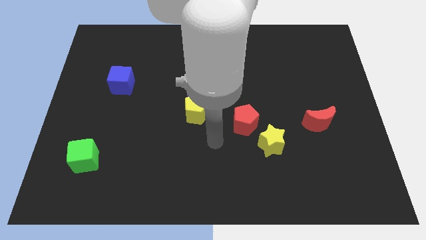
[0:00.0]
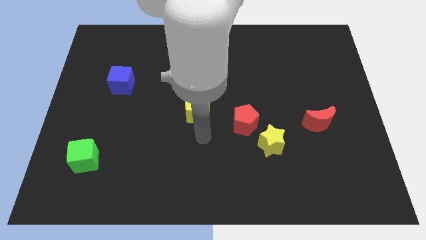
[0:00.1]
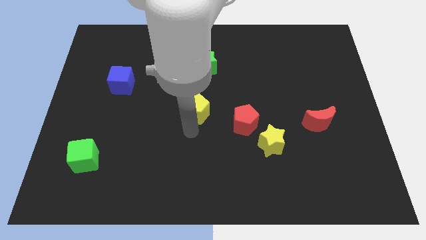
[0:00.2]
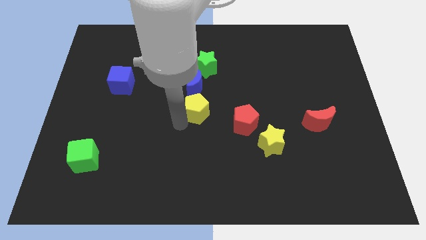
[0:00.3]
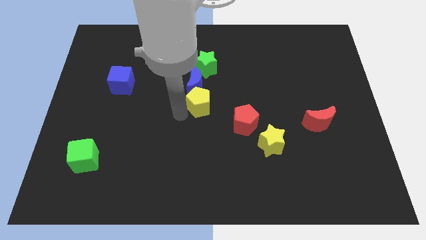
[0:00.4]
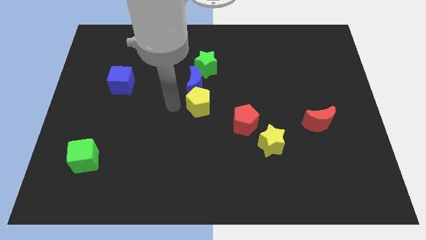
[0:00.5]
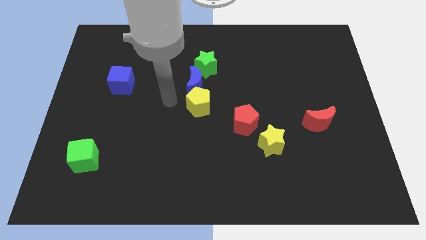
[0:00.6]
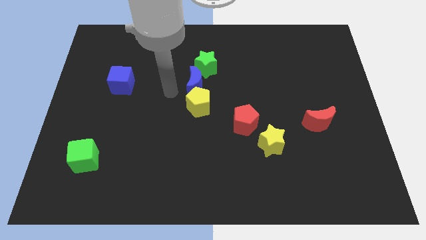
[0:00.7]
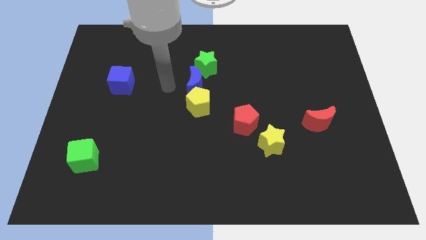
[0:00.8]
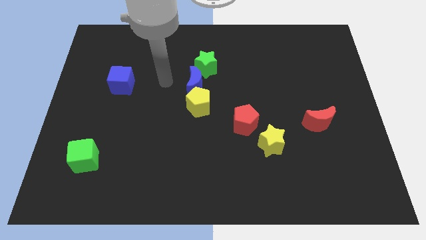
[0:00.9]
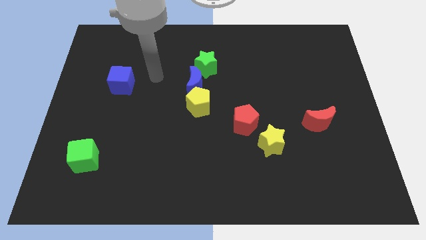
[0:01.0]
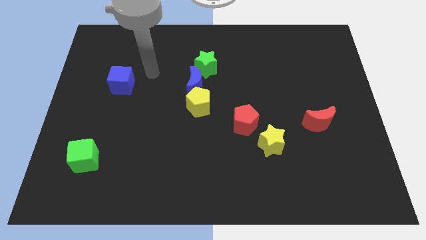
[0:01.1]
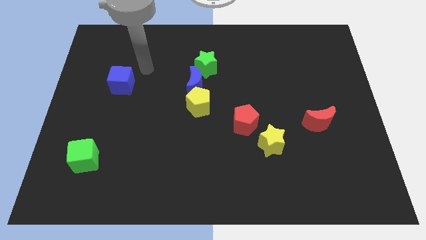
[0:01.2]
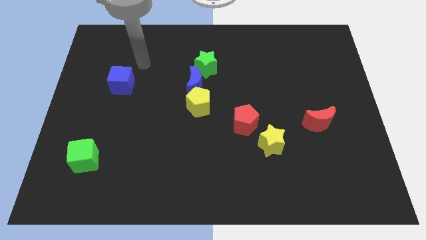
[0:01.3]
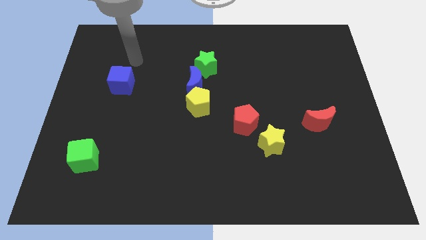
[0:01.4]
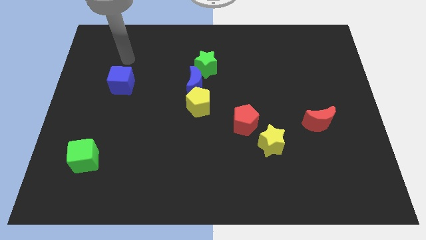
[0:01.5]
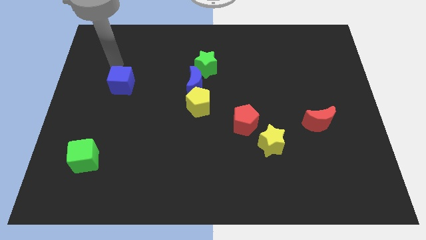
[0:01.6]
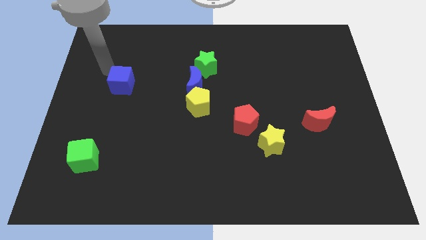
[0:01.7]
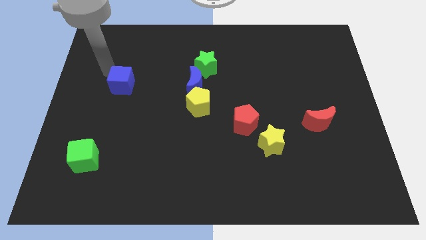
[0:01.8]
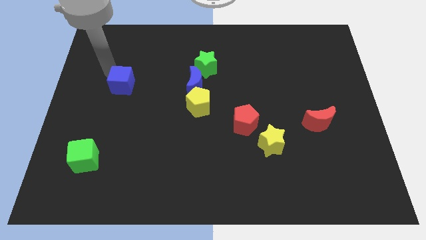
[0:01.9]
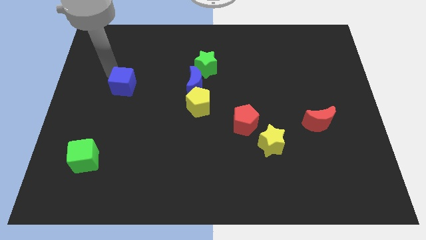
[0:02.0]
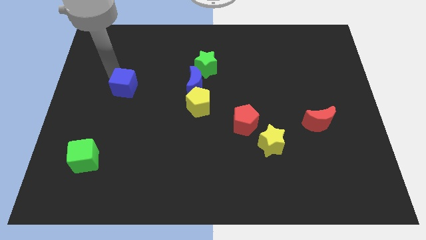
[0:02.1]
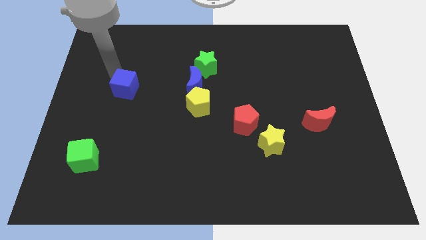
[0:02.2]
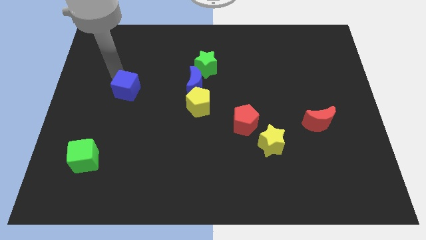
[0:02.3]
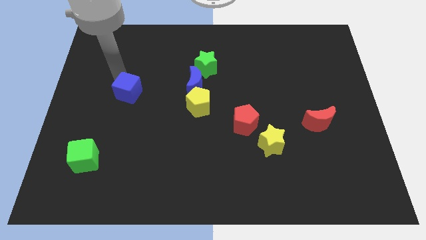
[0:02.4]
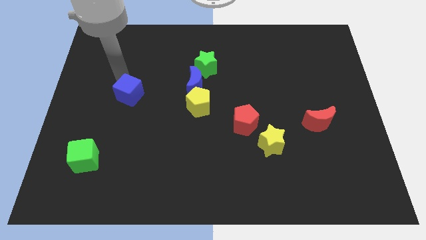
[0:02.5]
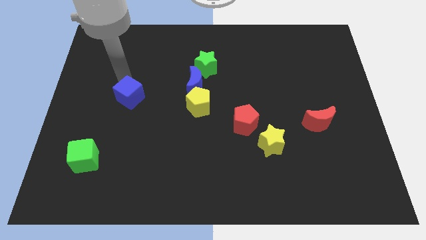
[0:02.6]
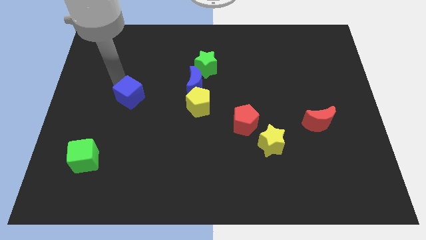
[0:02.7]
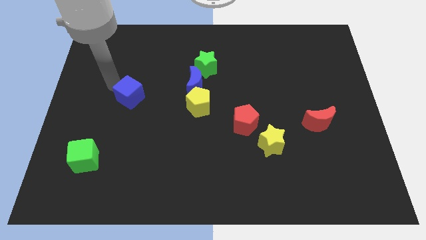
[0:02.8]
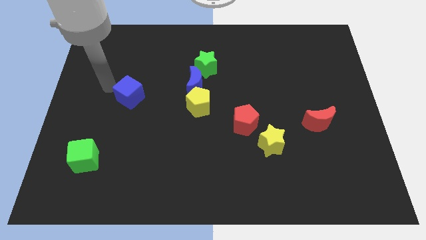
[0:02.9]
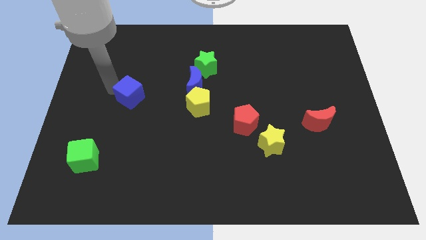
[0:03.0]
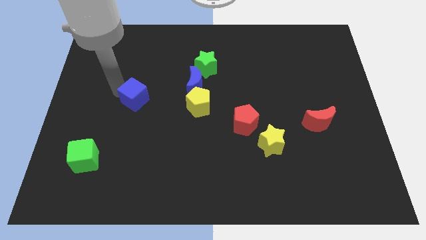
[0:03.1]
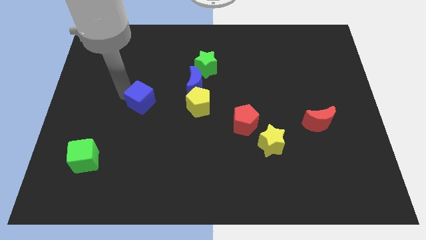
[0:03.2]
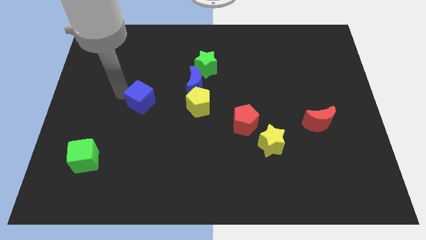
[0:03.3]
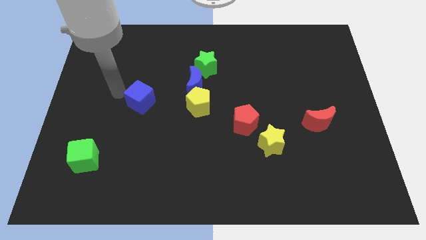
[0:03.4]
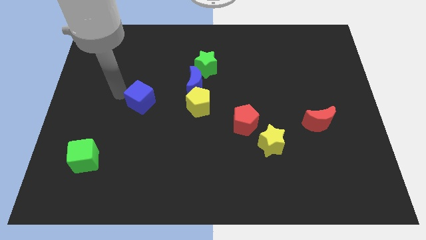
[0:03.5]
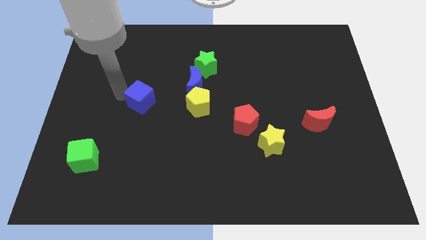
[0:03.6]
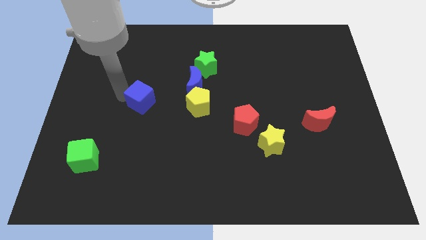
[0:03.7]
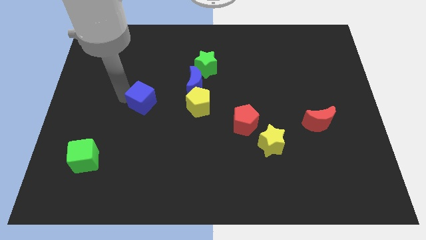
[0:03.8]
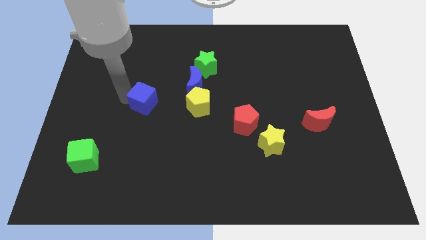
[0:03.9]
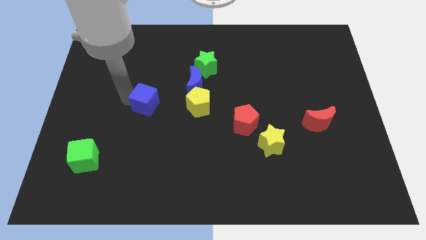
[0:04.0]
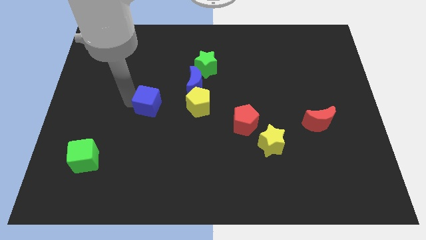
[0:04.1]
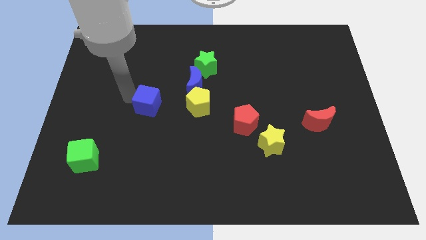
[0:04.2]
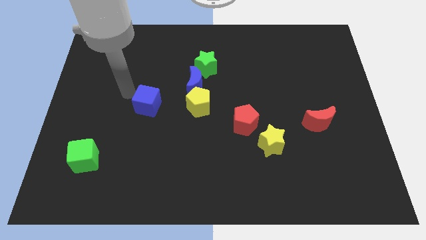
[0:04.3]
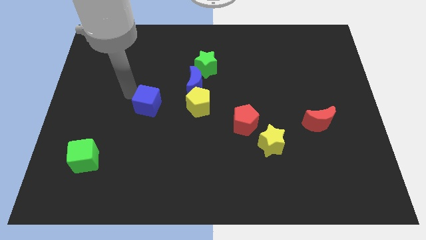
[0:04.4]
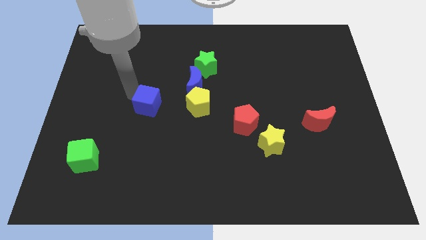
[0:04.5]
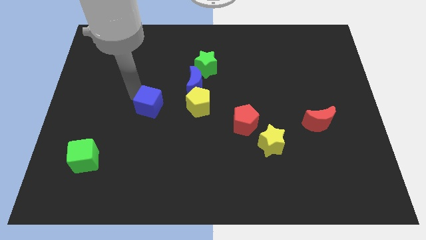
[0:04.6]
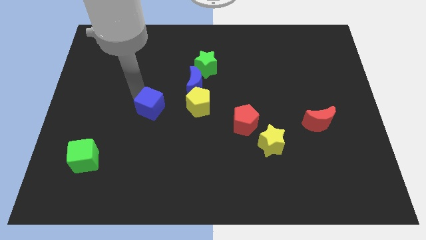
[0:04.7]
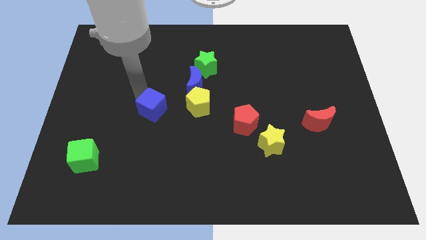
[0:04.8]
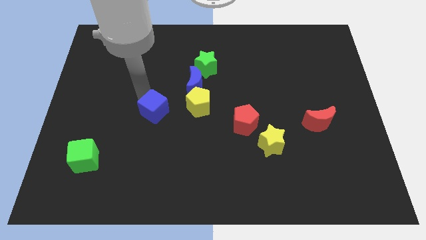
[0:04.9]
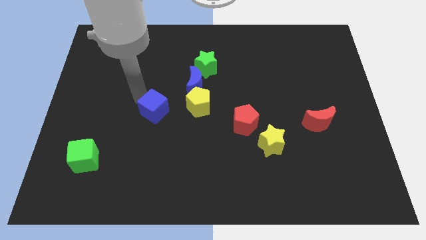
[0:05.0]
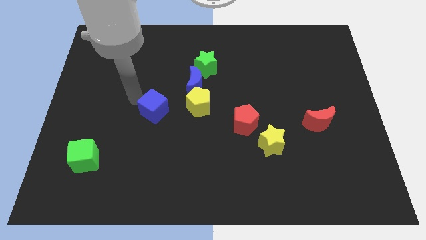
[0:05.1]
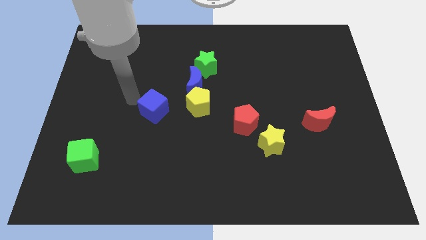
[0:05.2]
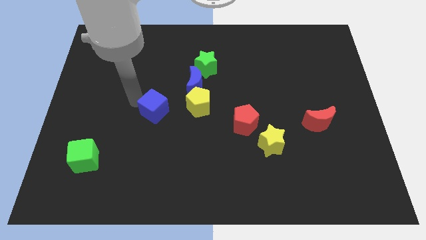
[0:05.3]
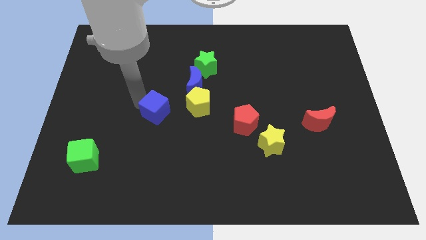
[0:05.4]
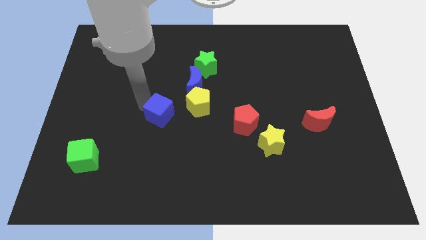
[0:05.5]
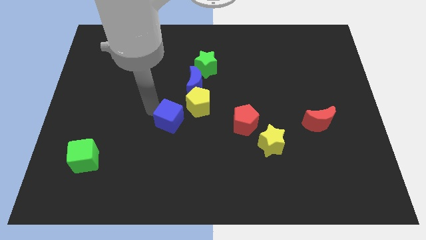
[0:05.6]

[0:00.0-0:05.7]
move the blue cube to the middle of the board

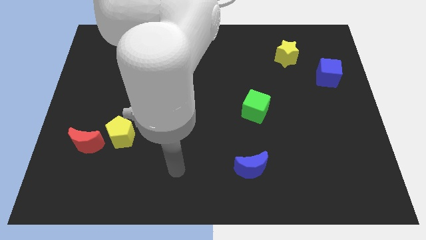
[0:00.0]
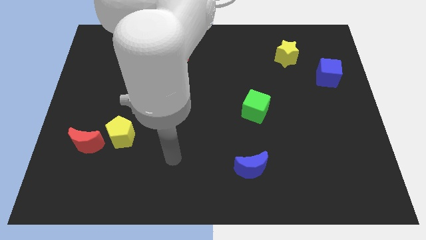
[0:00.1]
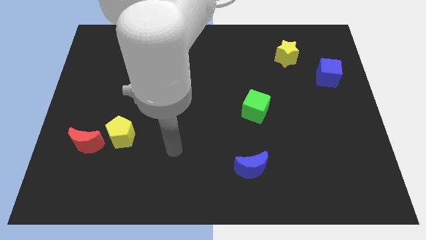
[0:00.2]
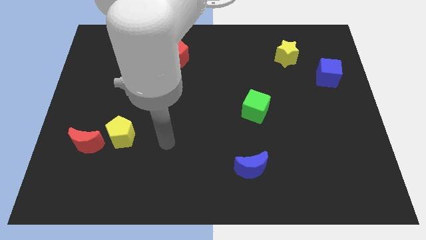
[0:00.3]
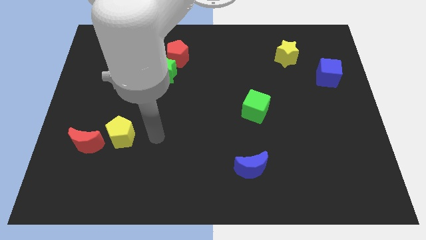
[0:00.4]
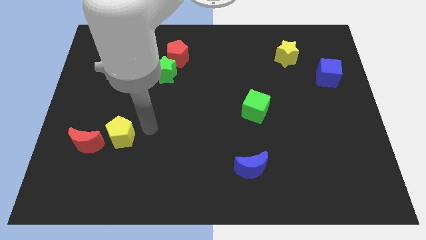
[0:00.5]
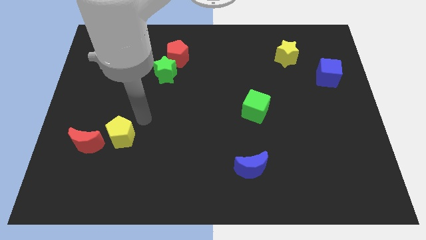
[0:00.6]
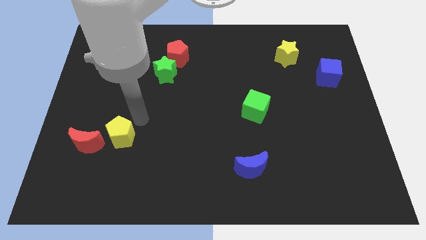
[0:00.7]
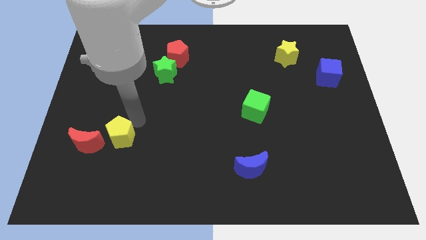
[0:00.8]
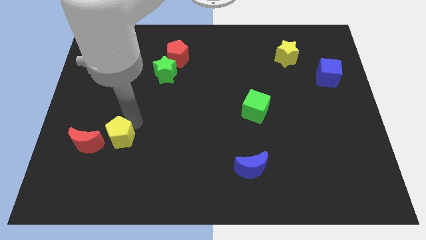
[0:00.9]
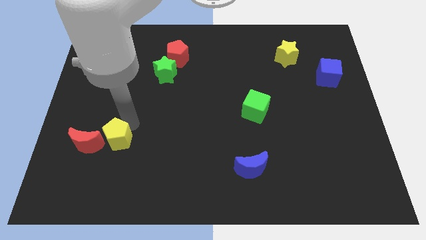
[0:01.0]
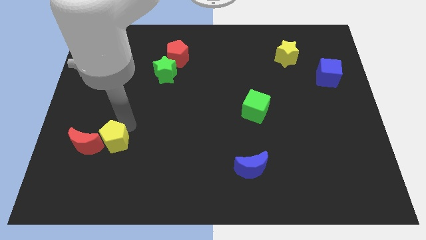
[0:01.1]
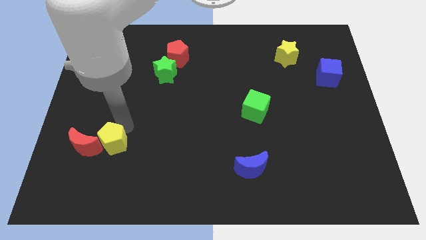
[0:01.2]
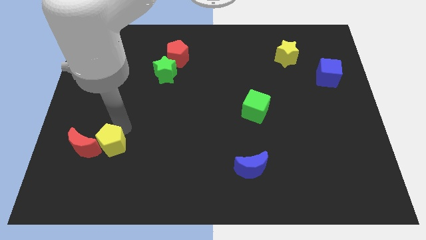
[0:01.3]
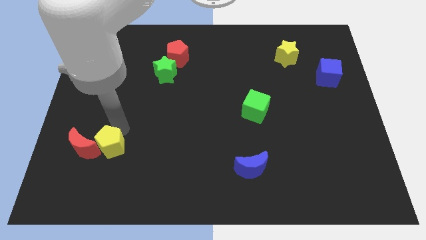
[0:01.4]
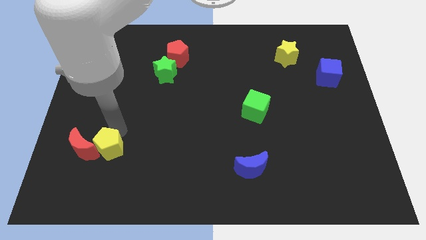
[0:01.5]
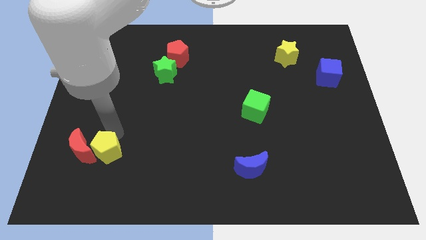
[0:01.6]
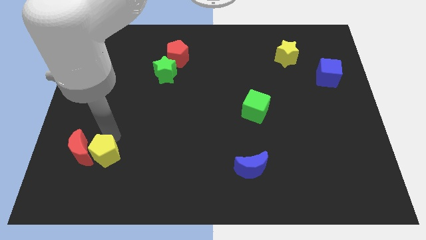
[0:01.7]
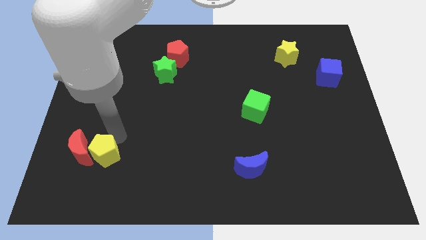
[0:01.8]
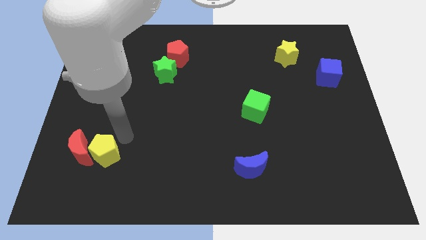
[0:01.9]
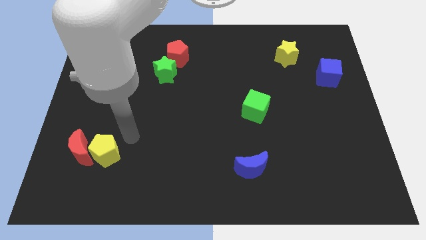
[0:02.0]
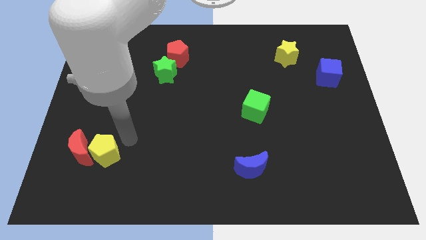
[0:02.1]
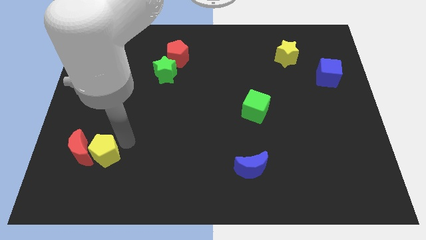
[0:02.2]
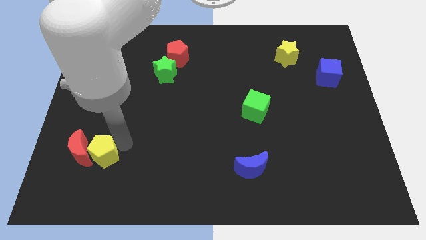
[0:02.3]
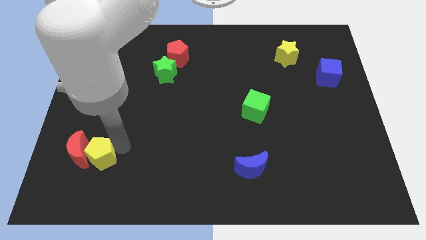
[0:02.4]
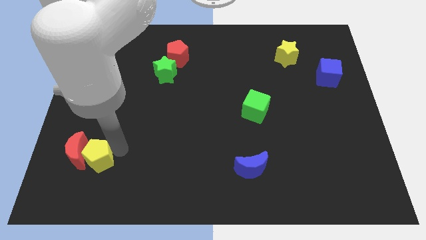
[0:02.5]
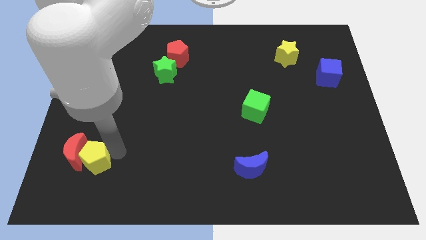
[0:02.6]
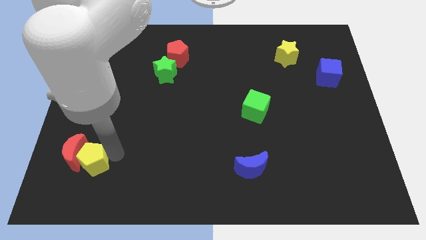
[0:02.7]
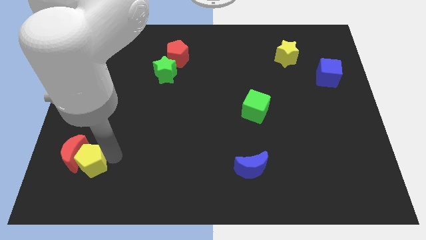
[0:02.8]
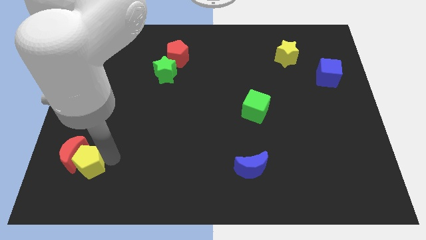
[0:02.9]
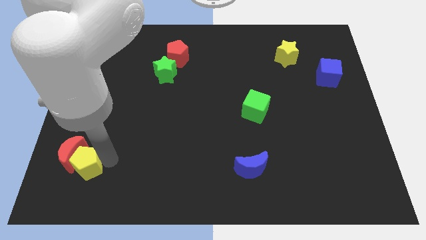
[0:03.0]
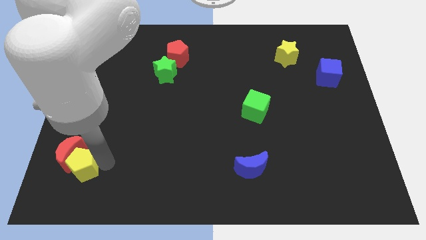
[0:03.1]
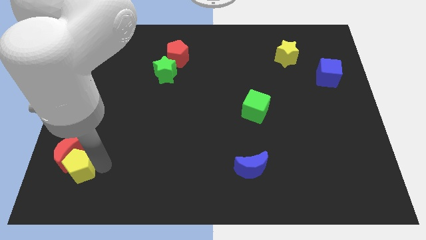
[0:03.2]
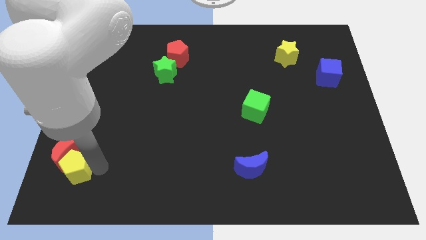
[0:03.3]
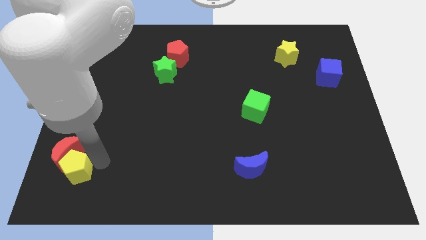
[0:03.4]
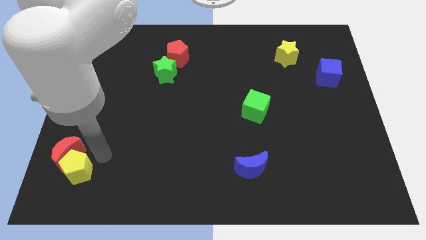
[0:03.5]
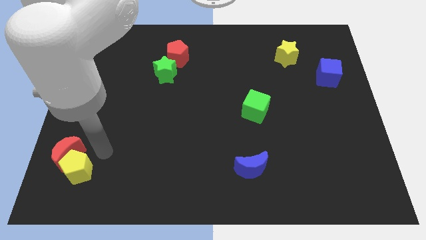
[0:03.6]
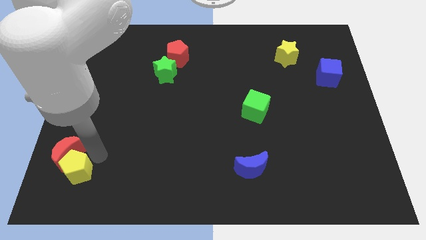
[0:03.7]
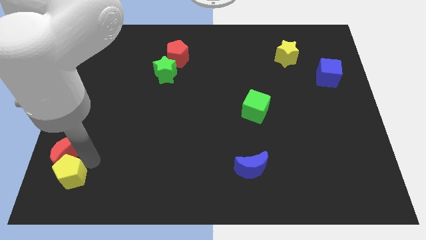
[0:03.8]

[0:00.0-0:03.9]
push the yellow pentagon to the lower left corner
